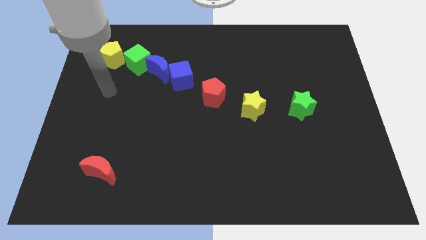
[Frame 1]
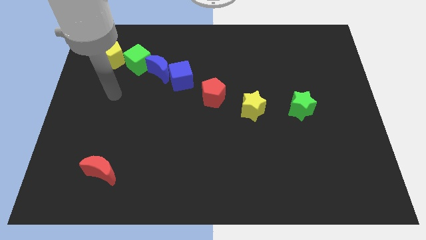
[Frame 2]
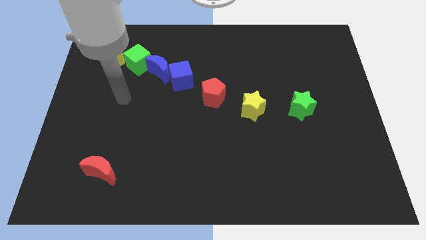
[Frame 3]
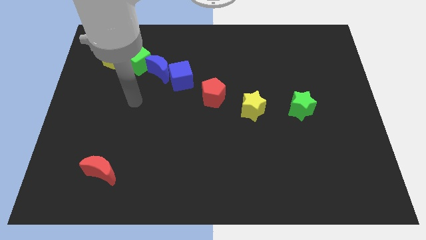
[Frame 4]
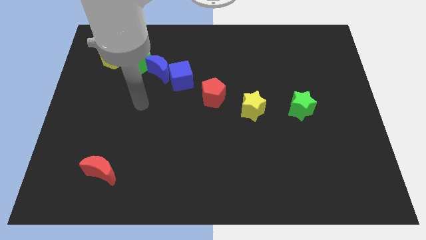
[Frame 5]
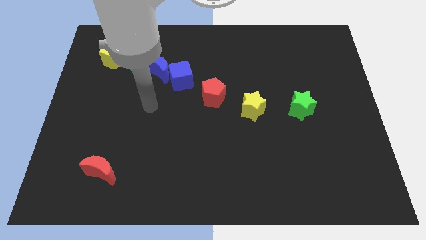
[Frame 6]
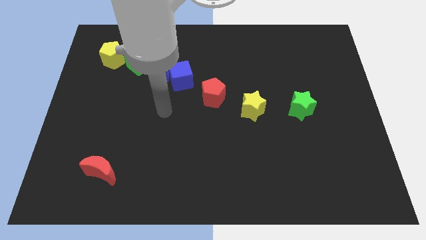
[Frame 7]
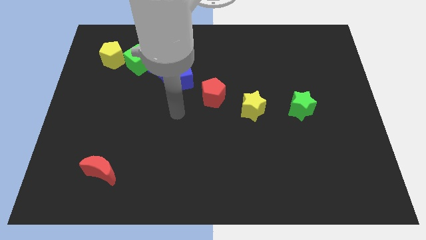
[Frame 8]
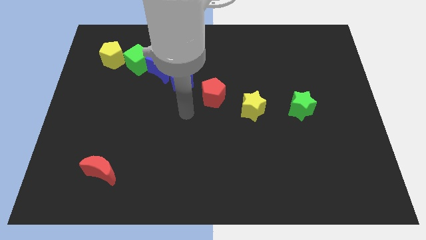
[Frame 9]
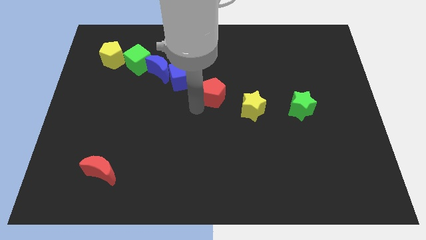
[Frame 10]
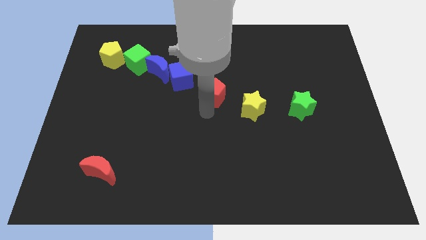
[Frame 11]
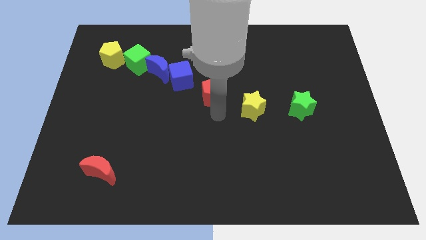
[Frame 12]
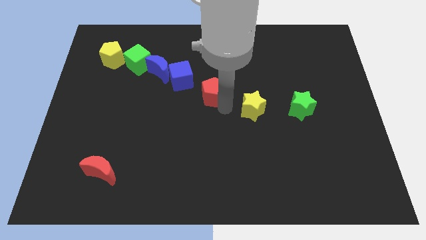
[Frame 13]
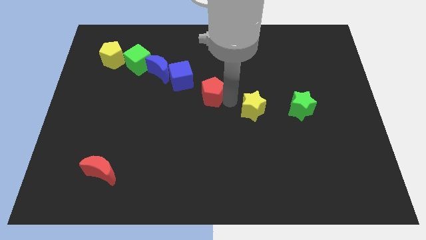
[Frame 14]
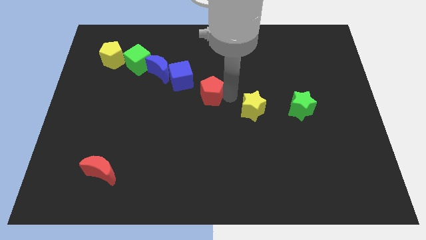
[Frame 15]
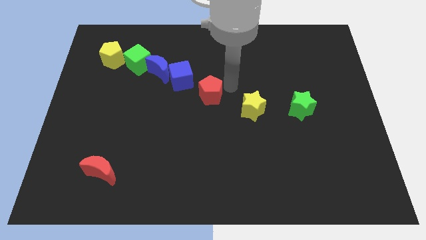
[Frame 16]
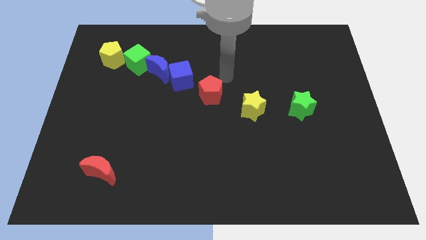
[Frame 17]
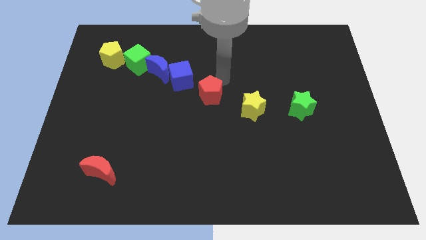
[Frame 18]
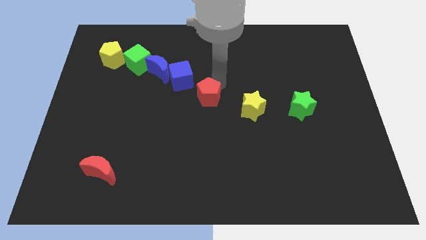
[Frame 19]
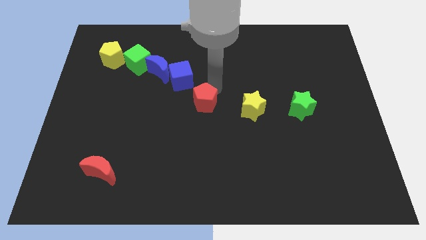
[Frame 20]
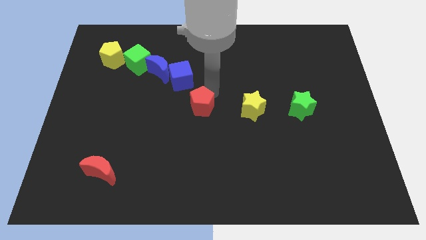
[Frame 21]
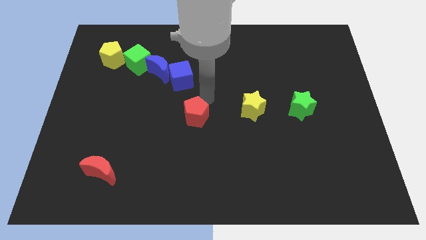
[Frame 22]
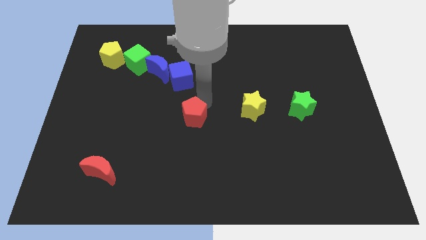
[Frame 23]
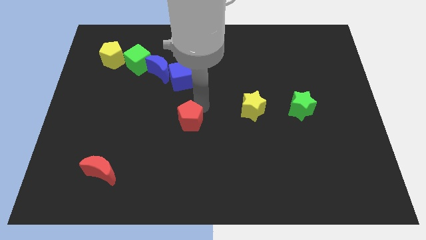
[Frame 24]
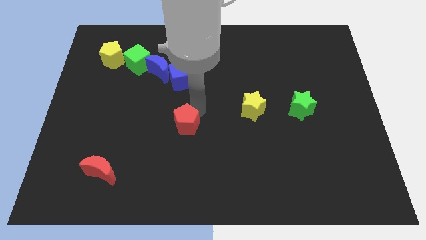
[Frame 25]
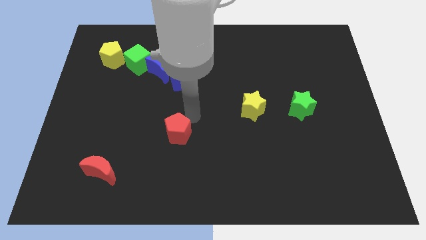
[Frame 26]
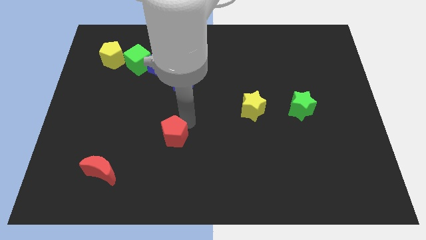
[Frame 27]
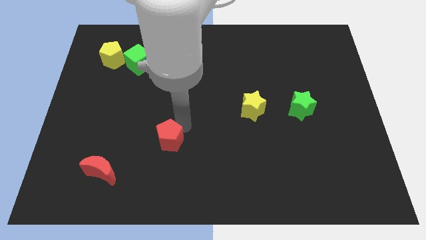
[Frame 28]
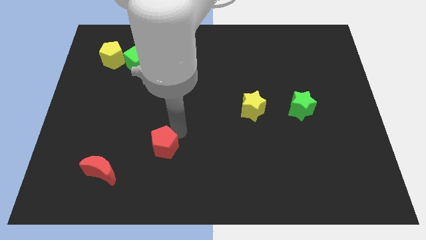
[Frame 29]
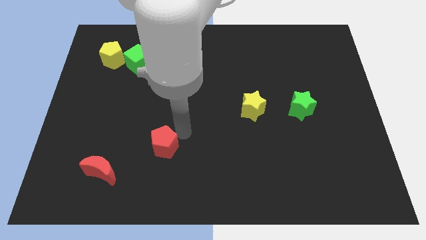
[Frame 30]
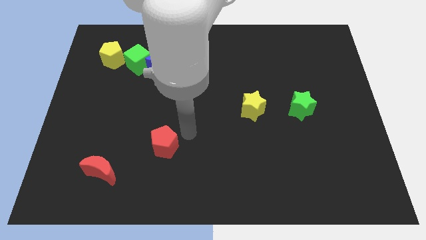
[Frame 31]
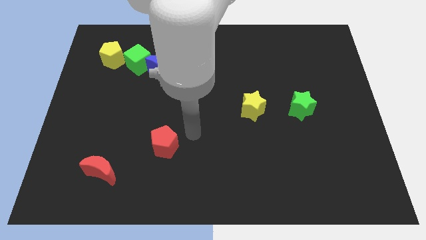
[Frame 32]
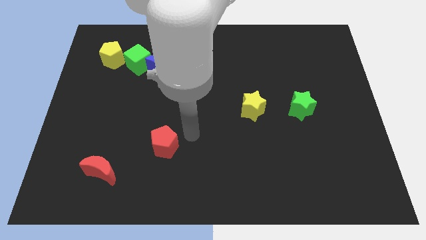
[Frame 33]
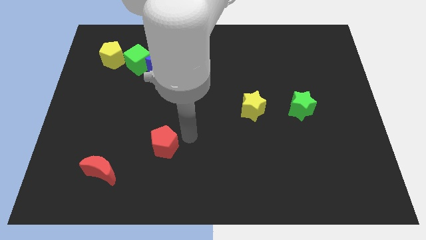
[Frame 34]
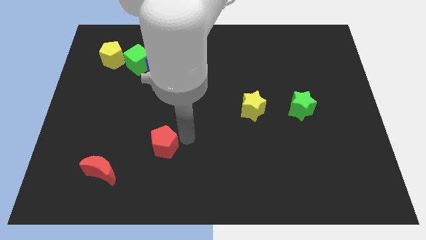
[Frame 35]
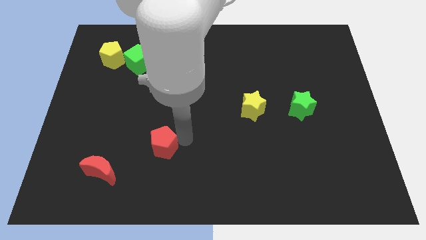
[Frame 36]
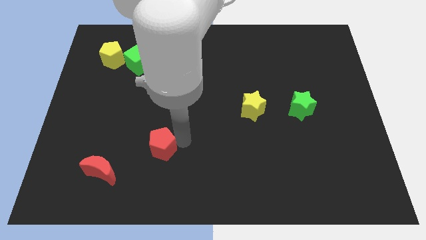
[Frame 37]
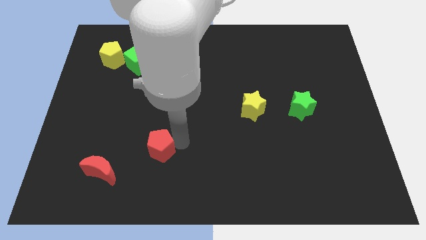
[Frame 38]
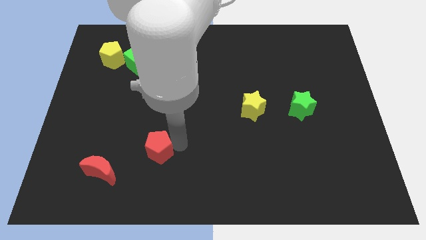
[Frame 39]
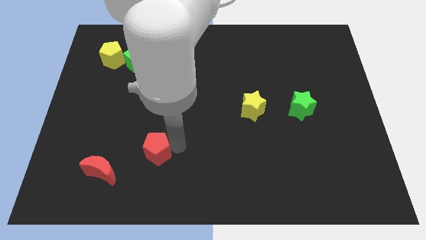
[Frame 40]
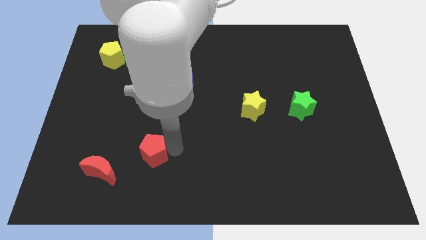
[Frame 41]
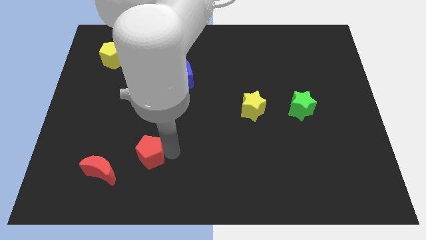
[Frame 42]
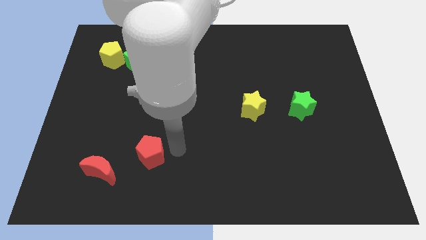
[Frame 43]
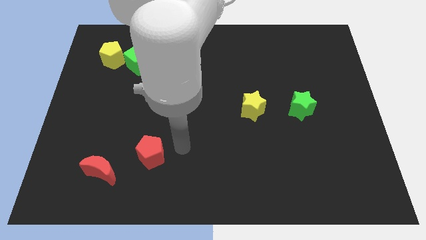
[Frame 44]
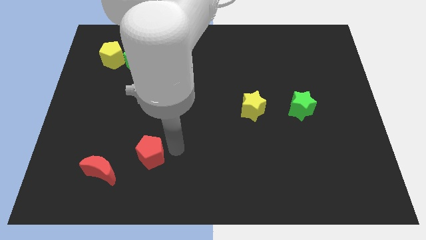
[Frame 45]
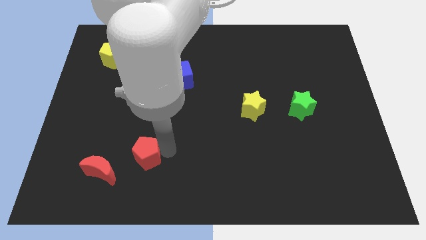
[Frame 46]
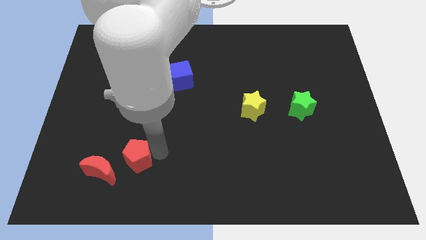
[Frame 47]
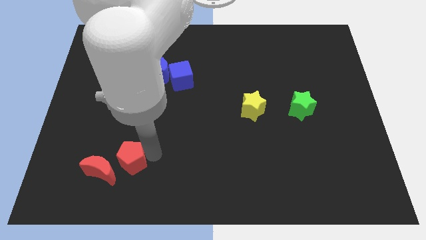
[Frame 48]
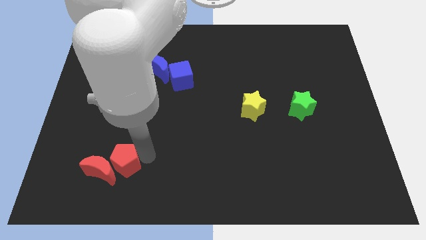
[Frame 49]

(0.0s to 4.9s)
move the red pentagon to the red moon

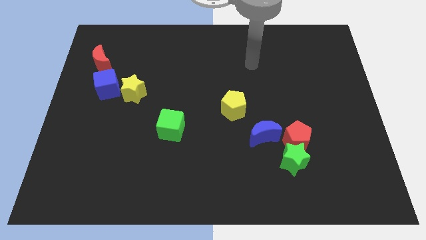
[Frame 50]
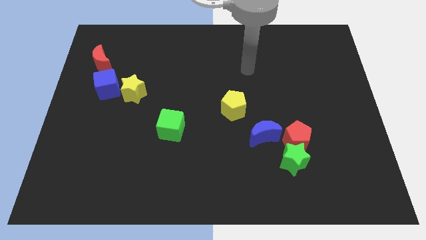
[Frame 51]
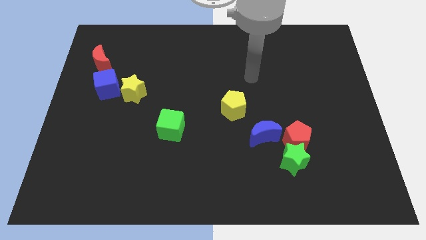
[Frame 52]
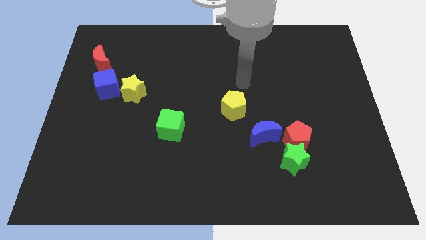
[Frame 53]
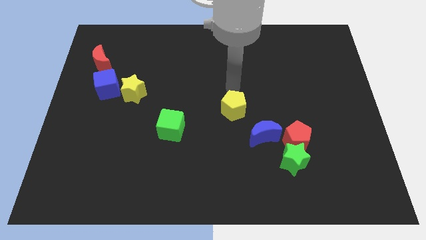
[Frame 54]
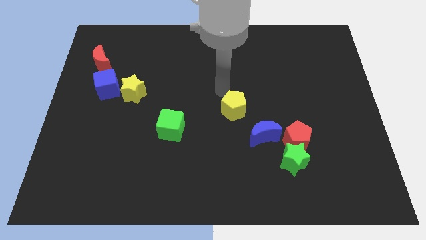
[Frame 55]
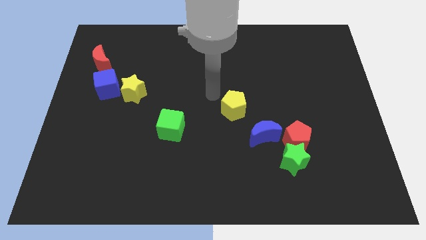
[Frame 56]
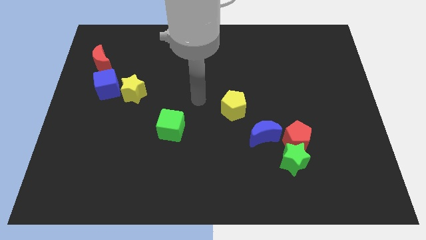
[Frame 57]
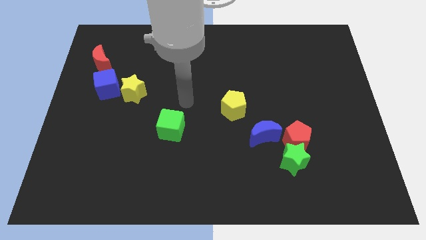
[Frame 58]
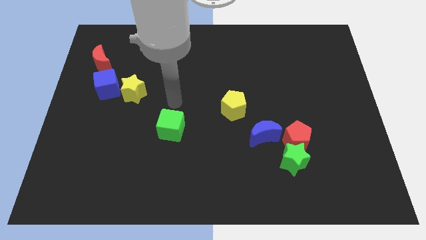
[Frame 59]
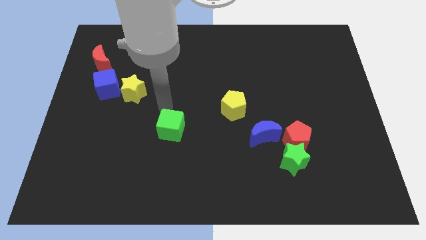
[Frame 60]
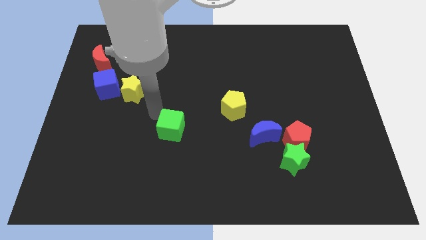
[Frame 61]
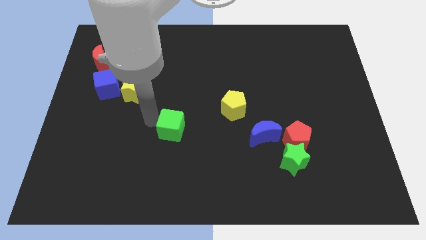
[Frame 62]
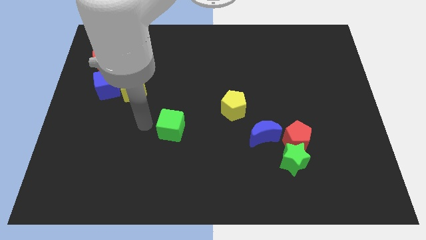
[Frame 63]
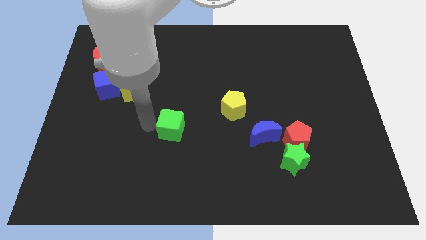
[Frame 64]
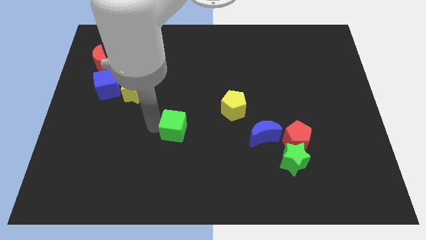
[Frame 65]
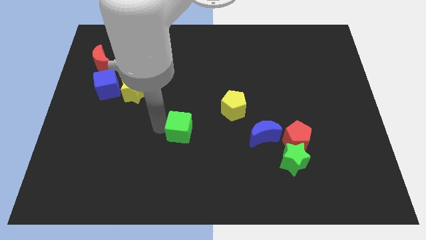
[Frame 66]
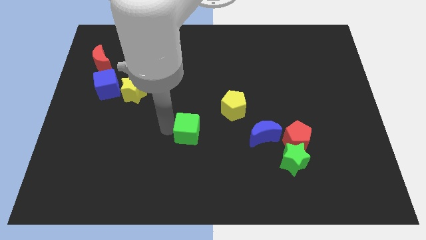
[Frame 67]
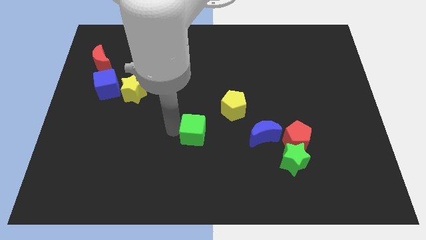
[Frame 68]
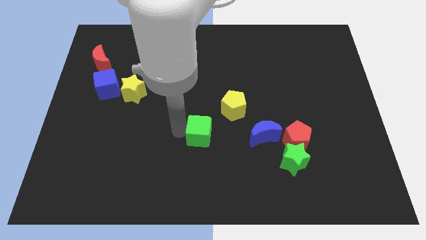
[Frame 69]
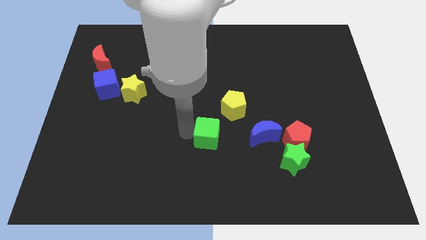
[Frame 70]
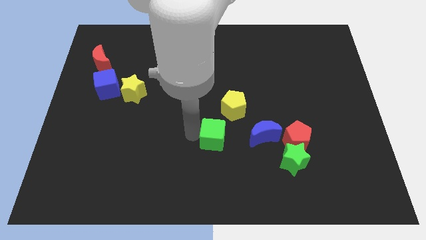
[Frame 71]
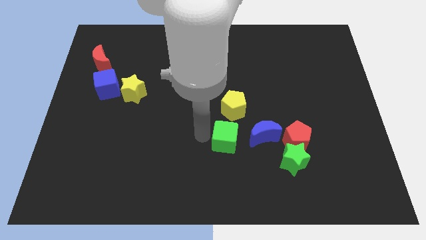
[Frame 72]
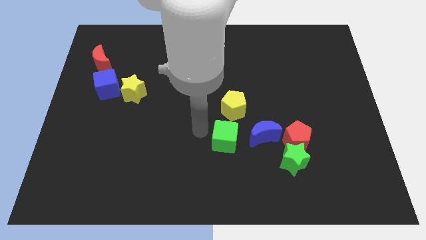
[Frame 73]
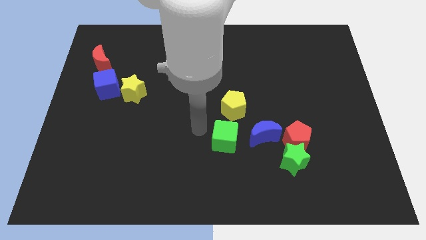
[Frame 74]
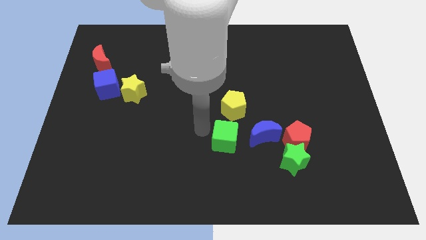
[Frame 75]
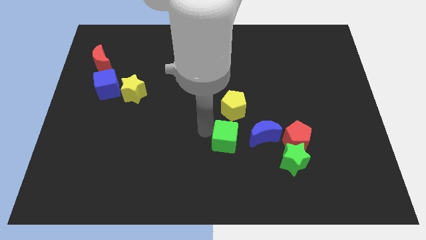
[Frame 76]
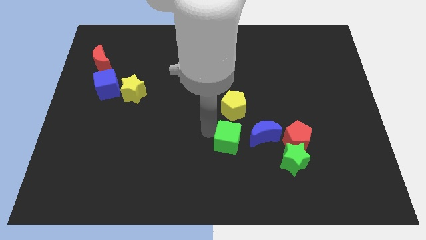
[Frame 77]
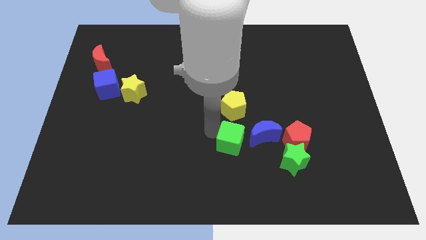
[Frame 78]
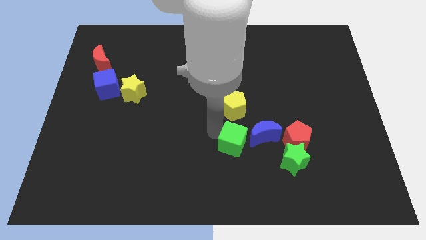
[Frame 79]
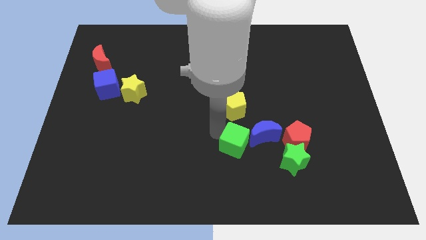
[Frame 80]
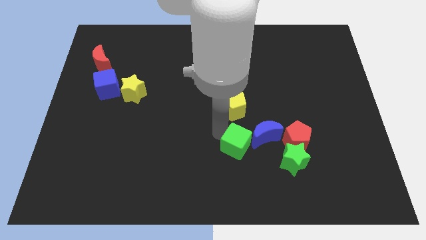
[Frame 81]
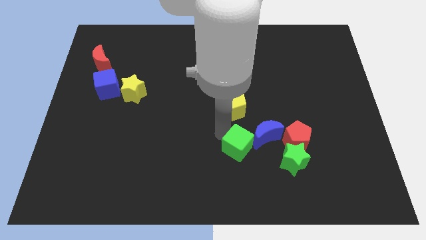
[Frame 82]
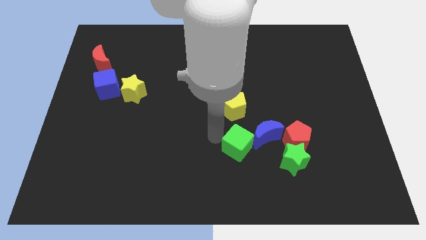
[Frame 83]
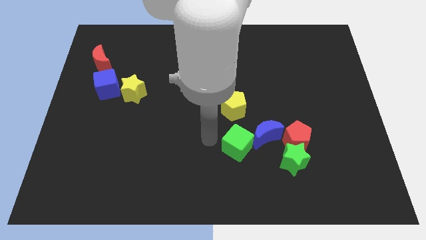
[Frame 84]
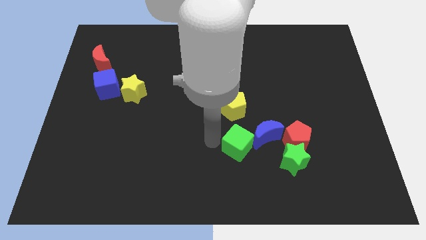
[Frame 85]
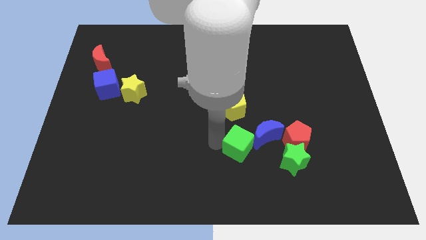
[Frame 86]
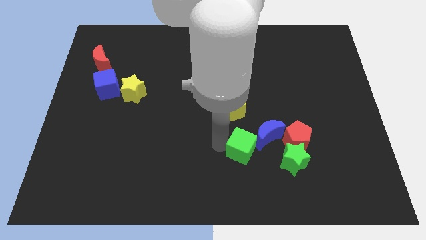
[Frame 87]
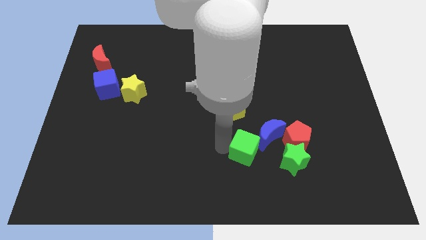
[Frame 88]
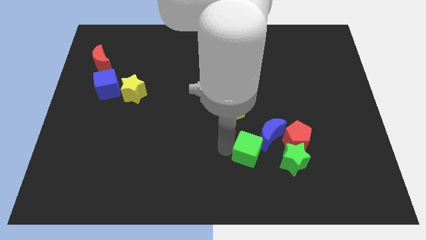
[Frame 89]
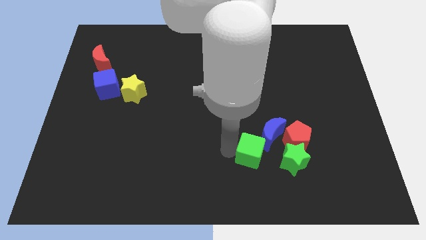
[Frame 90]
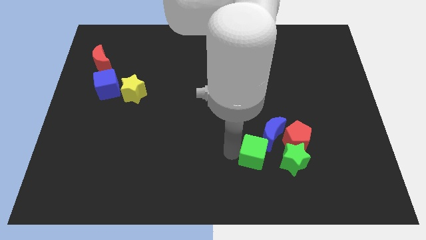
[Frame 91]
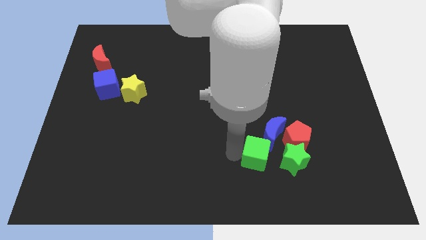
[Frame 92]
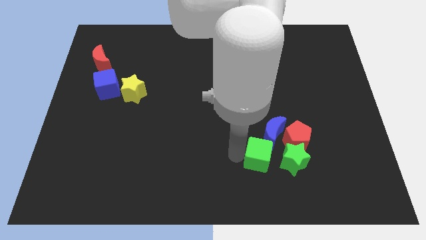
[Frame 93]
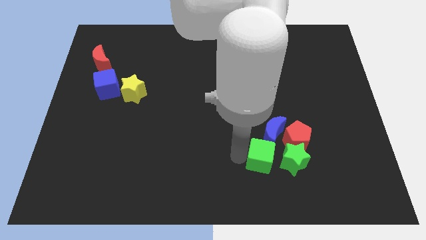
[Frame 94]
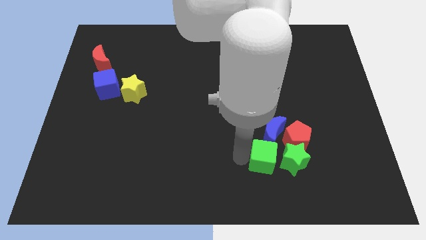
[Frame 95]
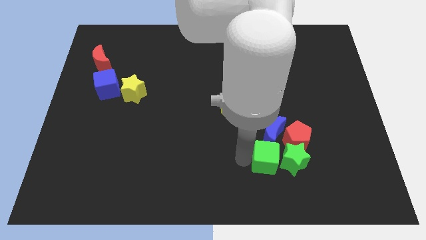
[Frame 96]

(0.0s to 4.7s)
slide the green cube next to the green star
